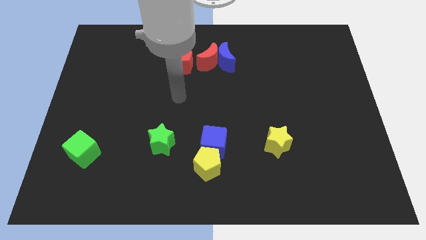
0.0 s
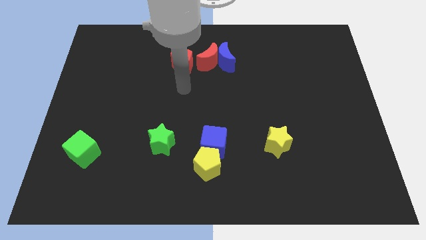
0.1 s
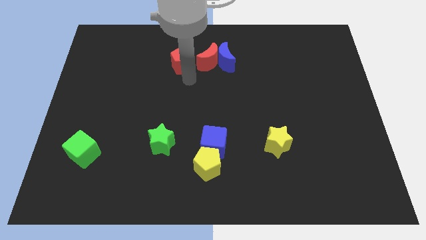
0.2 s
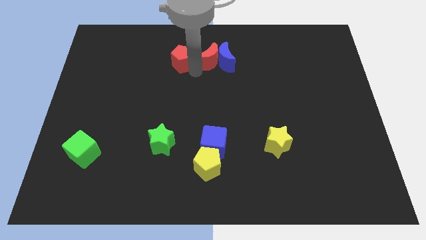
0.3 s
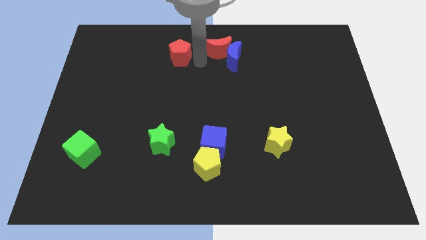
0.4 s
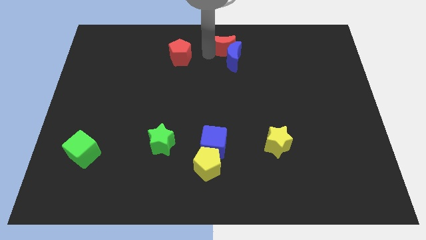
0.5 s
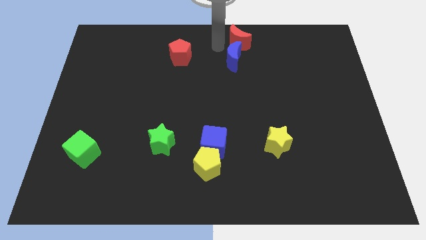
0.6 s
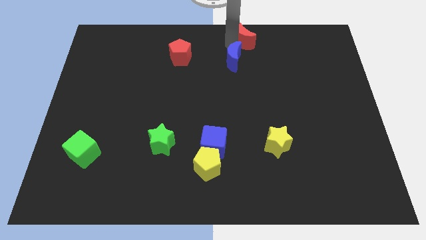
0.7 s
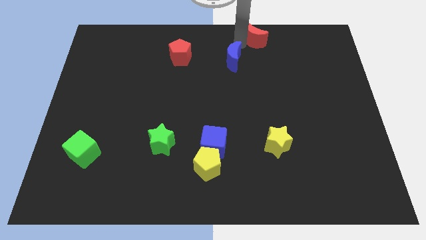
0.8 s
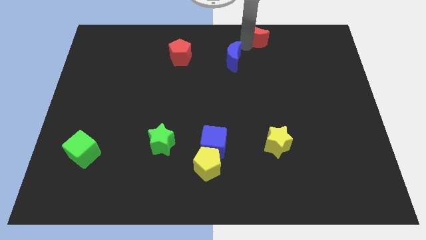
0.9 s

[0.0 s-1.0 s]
separate the blue moon from the red moon

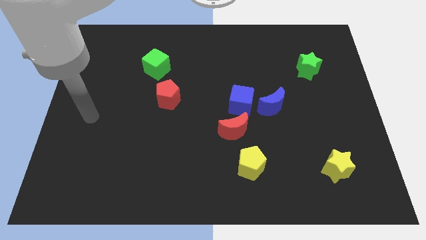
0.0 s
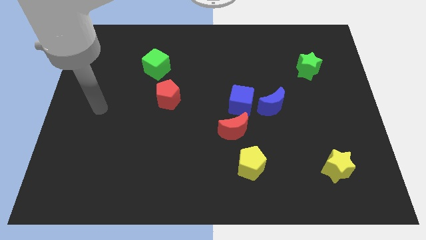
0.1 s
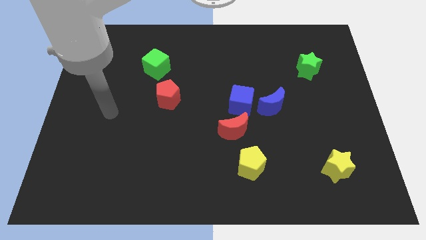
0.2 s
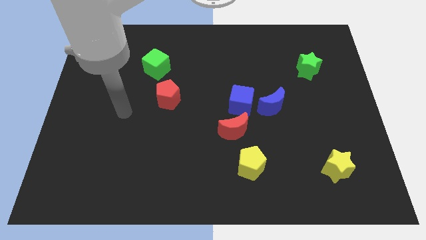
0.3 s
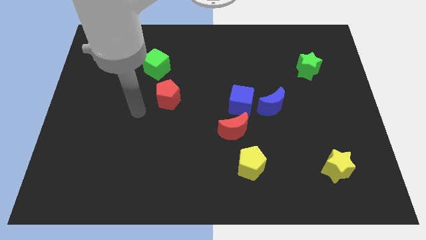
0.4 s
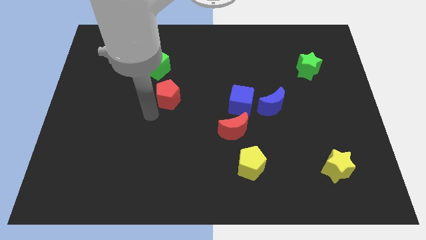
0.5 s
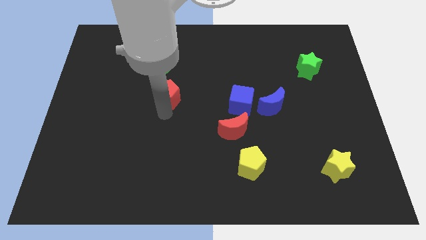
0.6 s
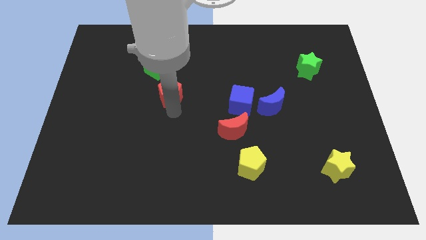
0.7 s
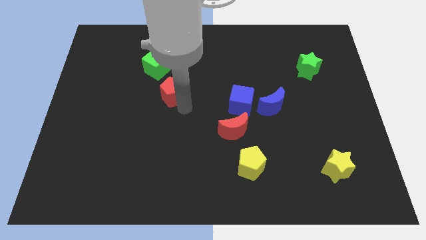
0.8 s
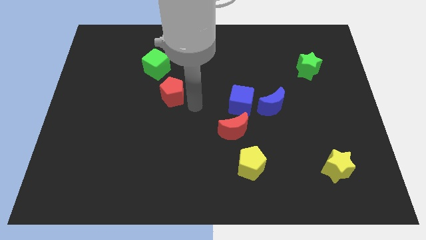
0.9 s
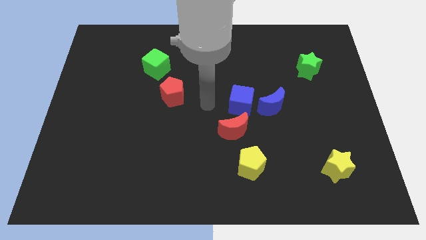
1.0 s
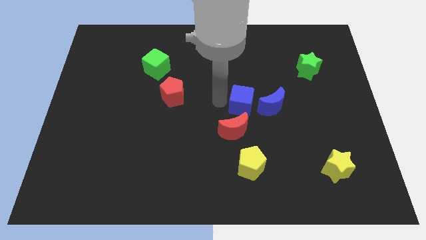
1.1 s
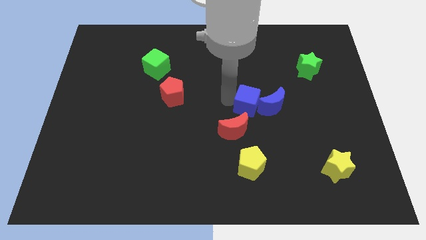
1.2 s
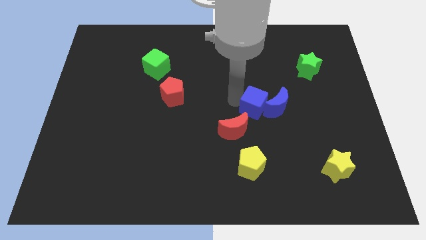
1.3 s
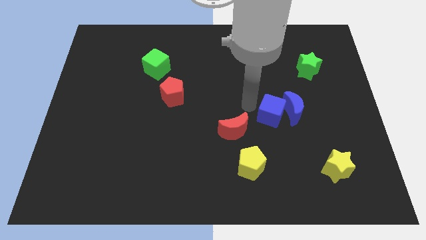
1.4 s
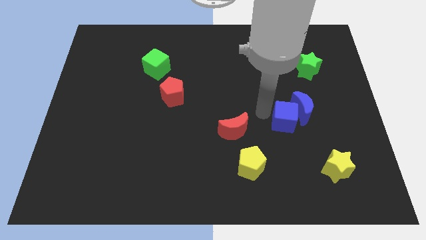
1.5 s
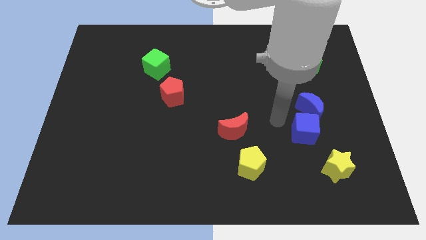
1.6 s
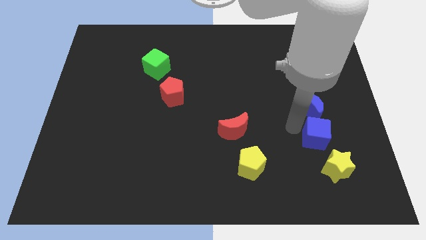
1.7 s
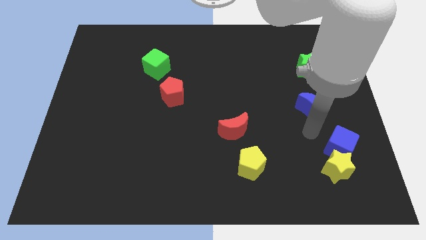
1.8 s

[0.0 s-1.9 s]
move the blue moon away from the blue cube

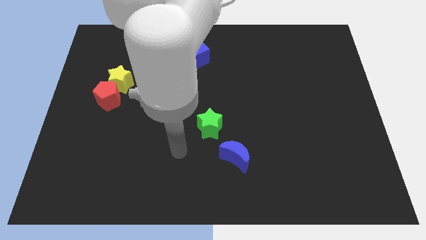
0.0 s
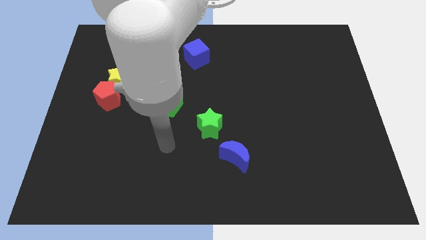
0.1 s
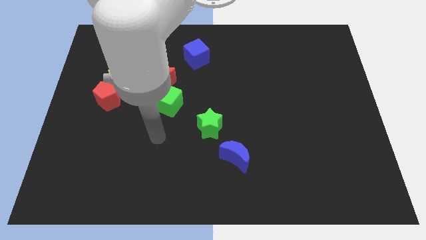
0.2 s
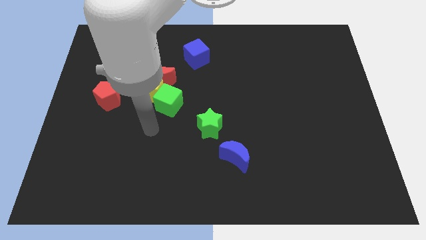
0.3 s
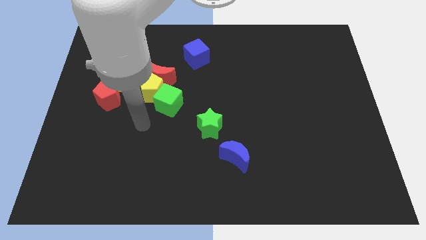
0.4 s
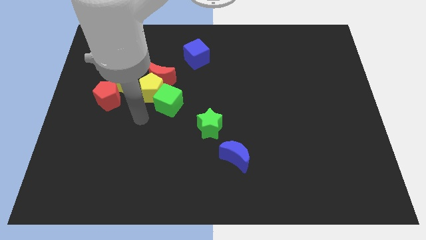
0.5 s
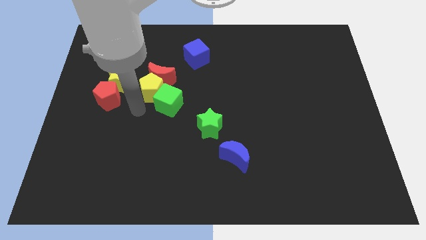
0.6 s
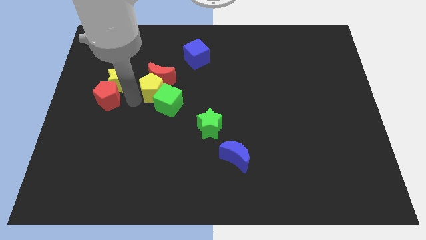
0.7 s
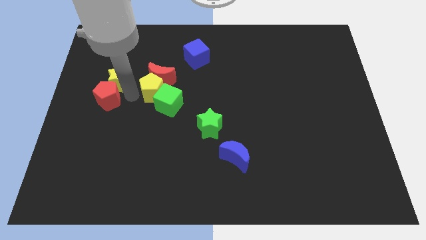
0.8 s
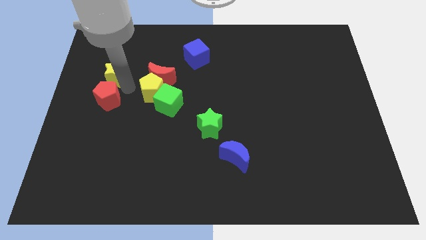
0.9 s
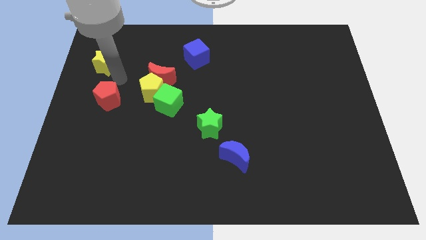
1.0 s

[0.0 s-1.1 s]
pull the red pentagon apart from the yellow star

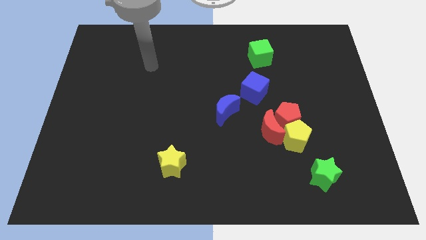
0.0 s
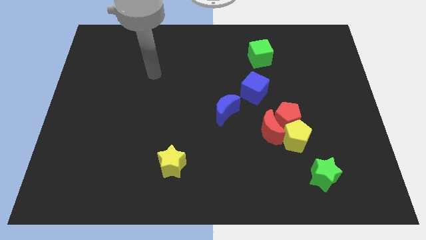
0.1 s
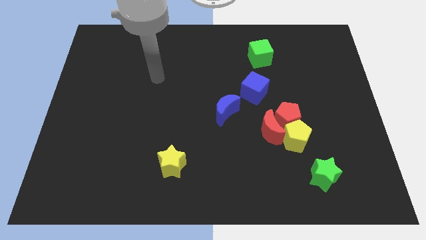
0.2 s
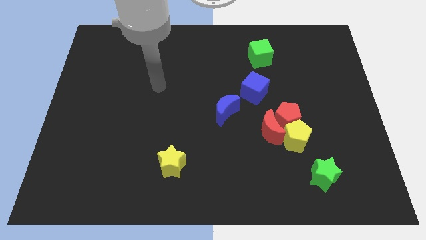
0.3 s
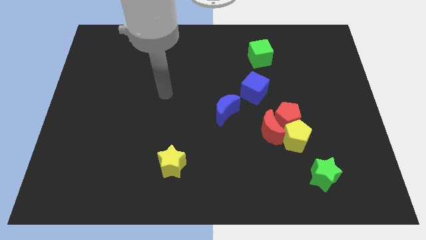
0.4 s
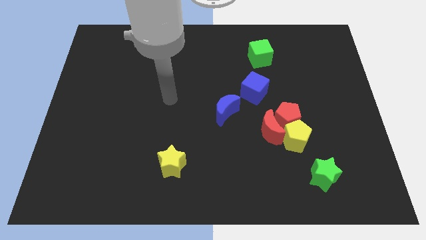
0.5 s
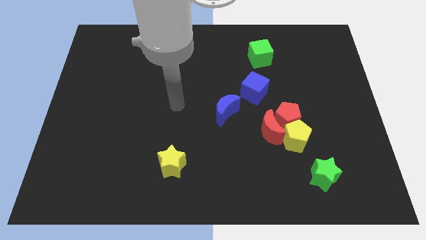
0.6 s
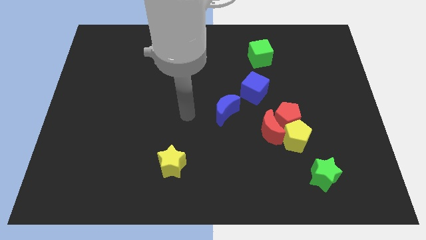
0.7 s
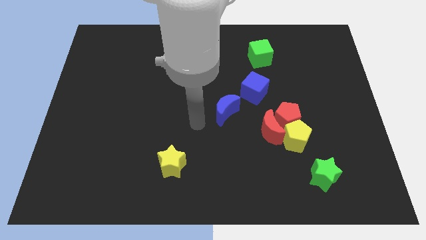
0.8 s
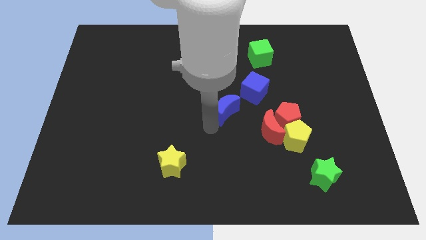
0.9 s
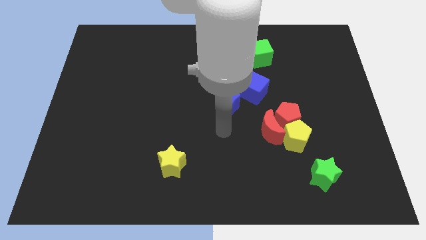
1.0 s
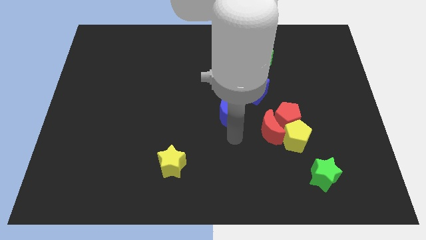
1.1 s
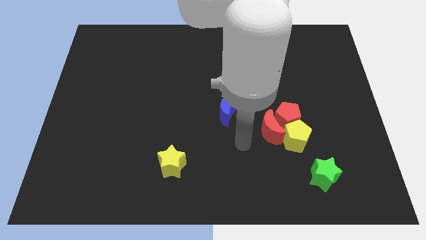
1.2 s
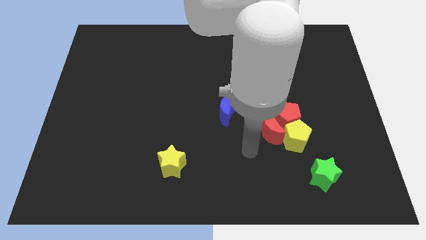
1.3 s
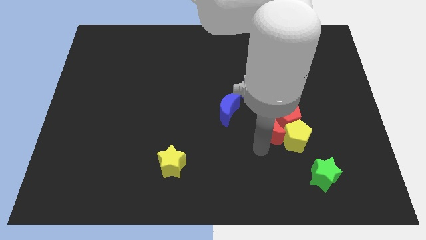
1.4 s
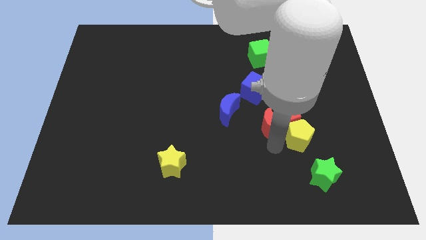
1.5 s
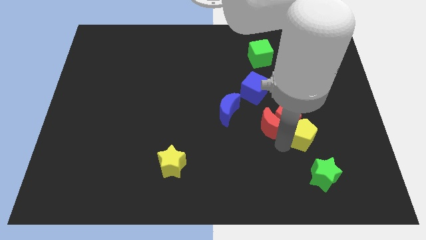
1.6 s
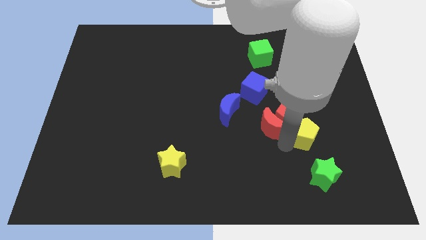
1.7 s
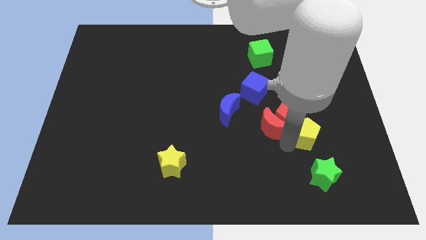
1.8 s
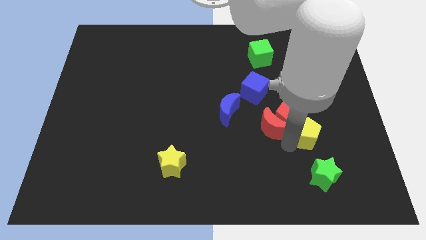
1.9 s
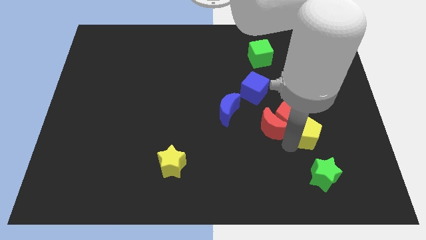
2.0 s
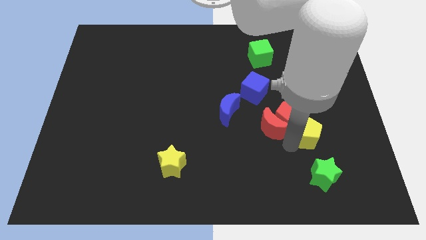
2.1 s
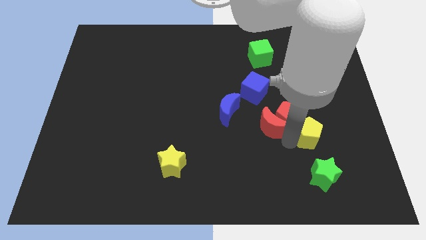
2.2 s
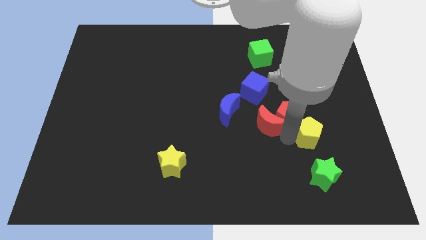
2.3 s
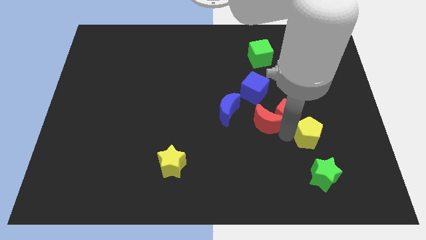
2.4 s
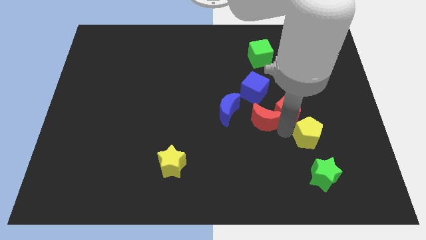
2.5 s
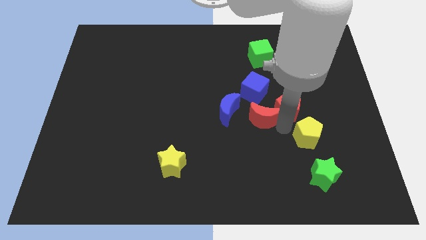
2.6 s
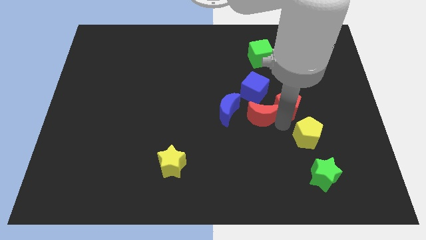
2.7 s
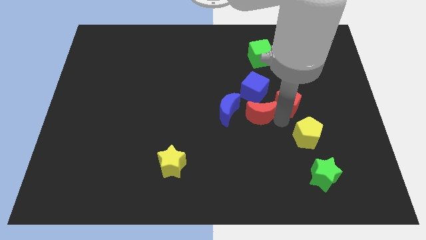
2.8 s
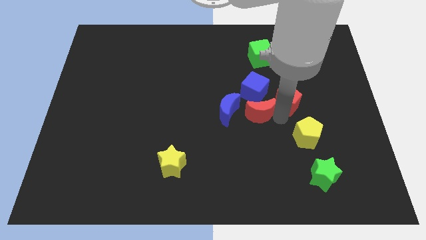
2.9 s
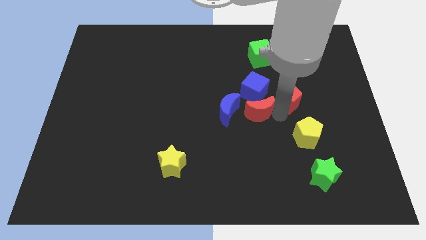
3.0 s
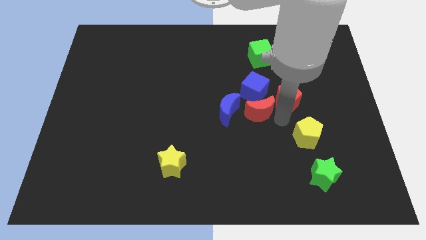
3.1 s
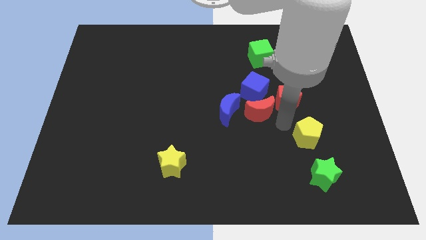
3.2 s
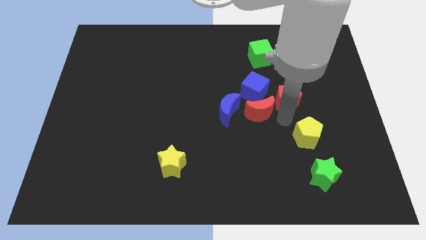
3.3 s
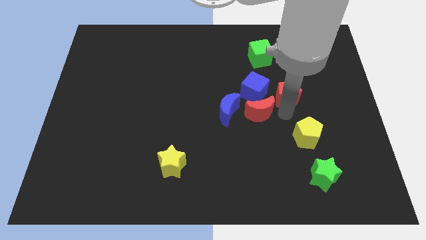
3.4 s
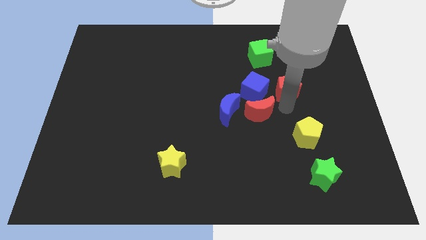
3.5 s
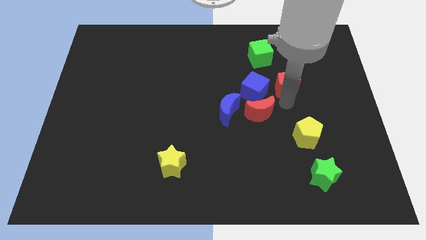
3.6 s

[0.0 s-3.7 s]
pull the red pentagon apart from the red moon and yellow pentagon

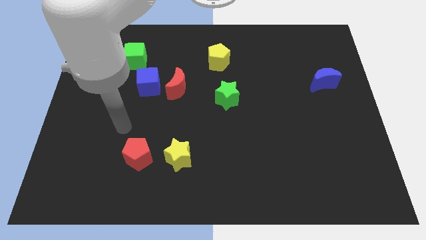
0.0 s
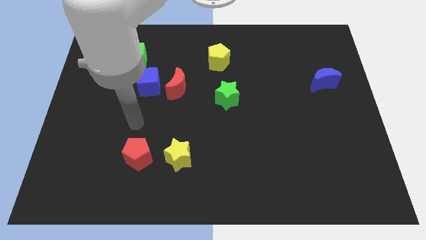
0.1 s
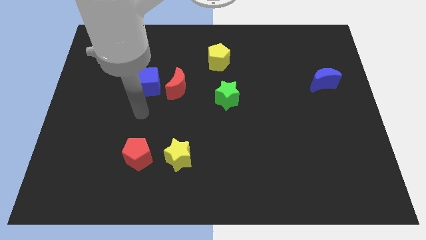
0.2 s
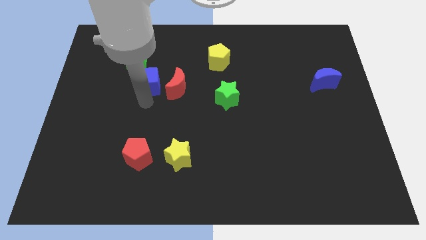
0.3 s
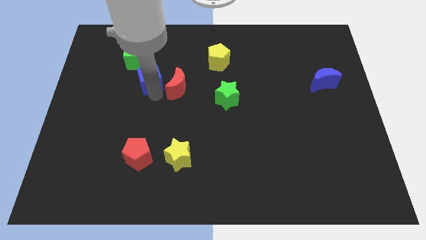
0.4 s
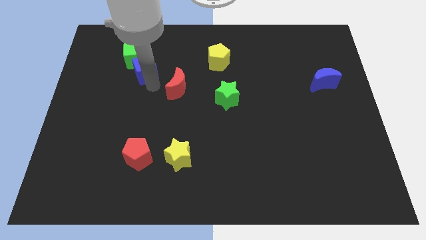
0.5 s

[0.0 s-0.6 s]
separate the red moon from the blue cube

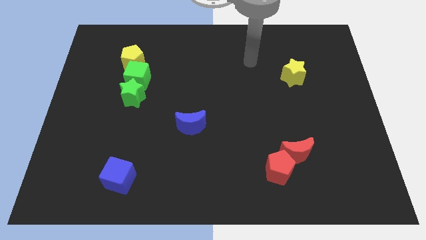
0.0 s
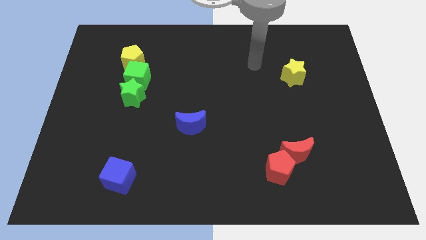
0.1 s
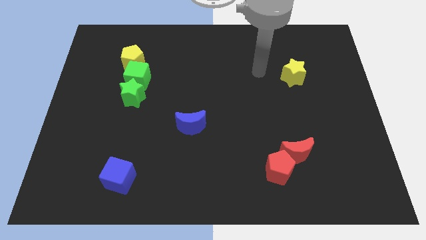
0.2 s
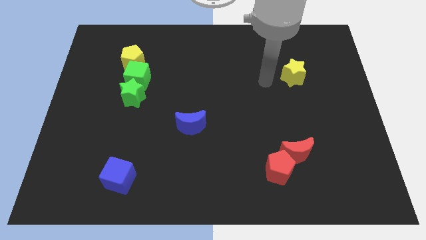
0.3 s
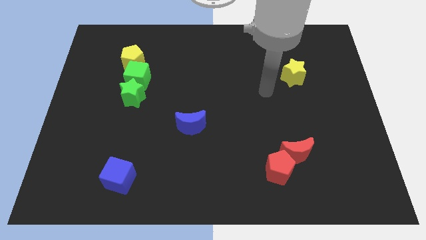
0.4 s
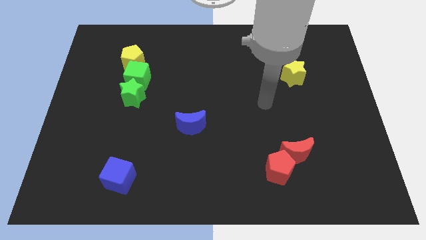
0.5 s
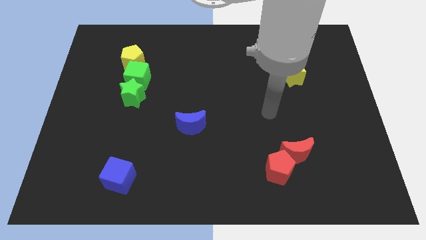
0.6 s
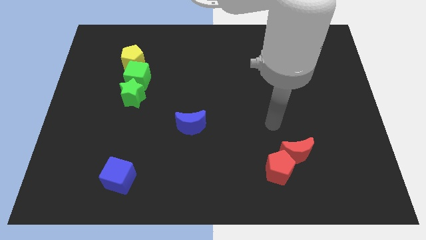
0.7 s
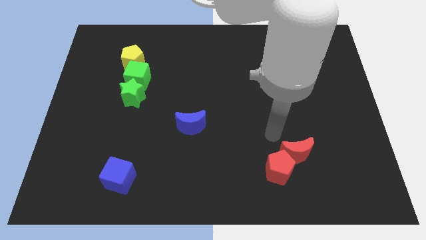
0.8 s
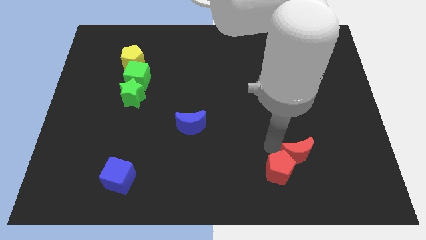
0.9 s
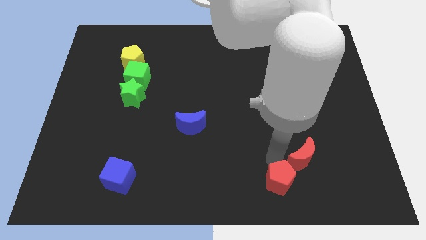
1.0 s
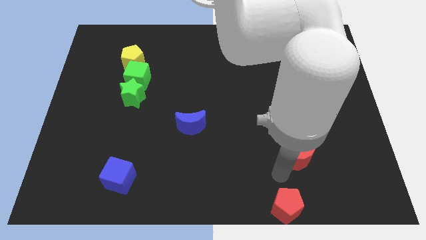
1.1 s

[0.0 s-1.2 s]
separate the red moon from the red pentagon
